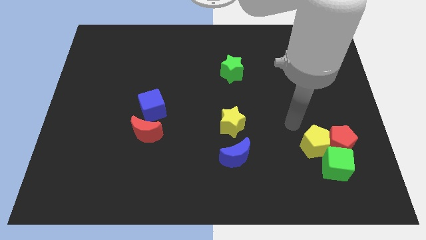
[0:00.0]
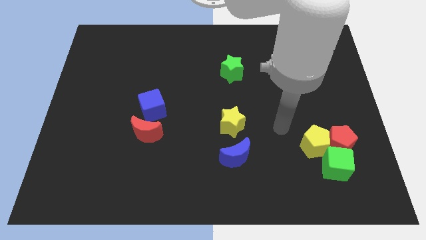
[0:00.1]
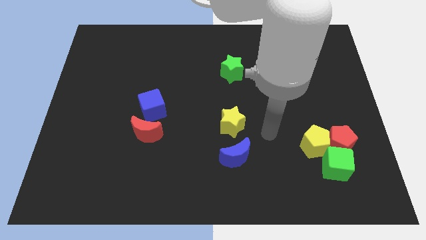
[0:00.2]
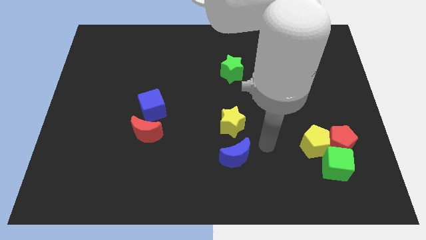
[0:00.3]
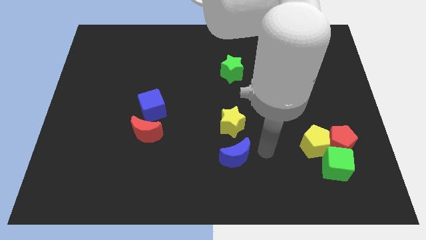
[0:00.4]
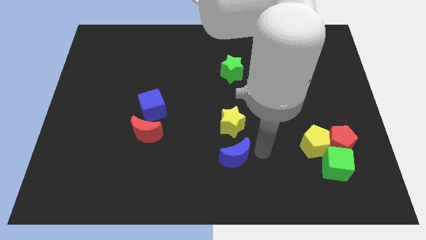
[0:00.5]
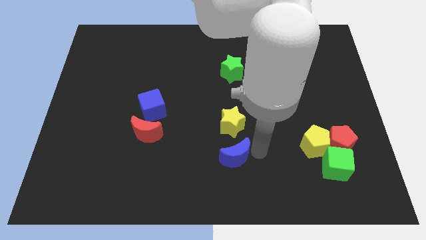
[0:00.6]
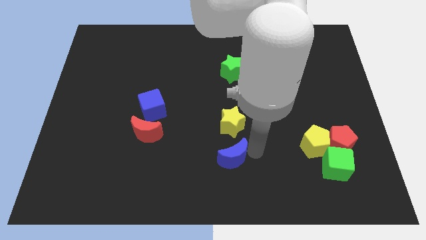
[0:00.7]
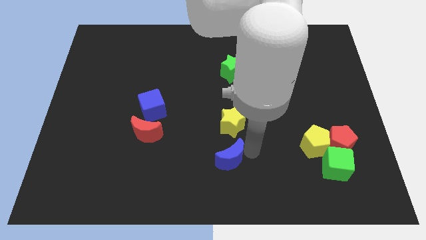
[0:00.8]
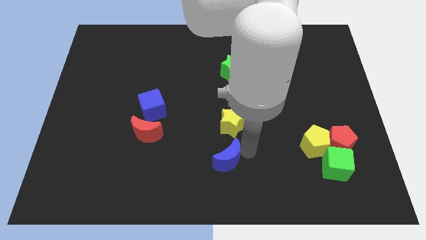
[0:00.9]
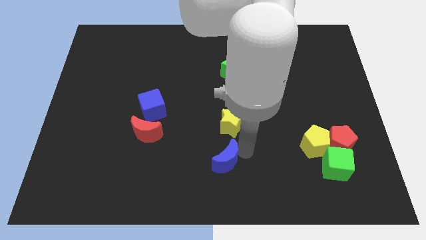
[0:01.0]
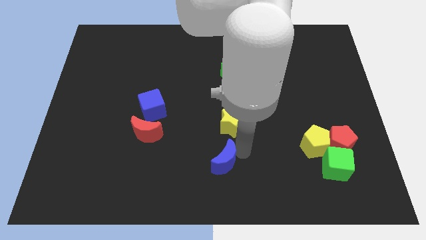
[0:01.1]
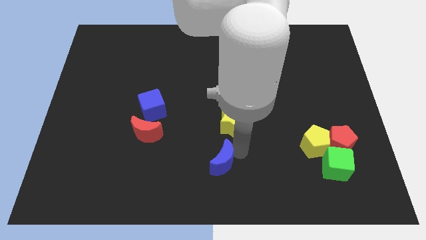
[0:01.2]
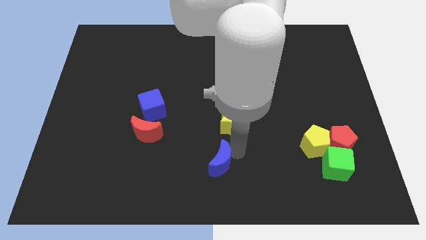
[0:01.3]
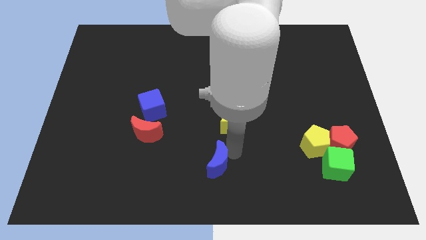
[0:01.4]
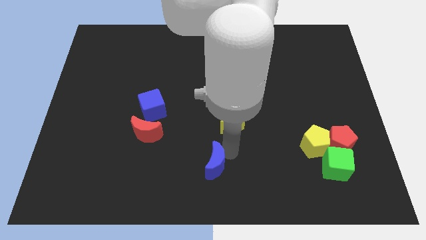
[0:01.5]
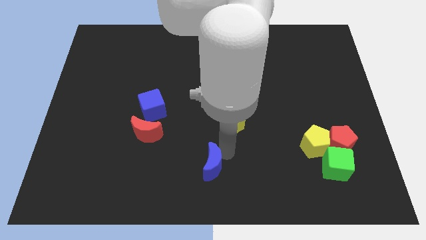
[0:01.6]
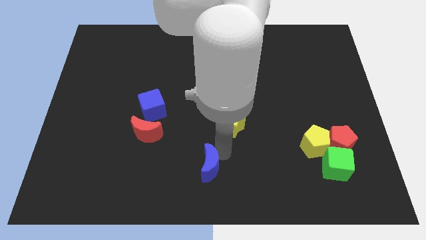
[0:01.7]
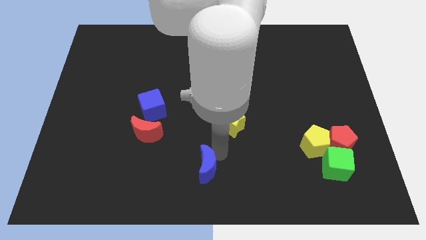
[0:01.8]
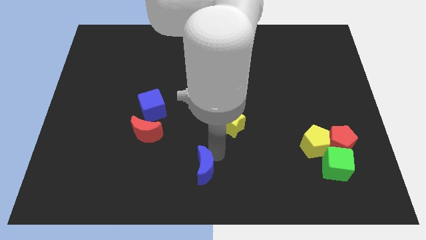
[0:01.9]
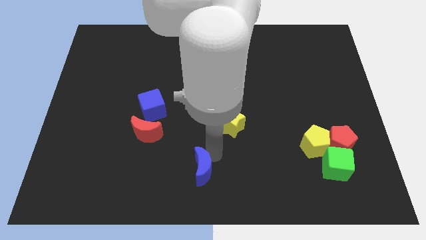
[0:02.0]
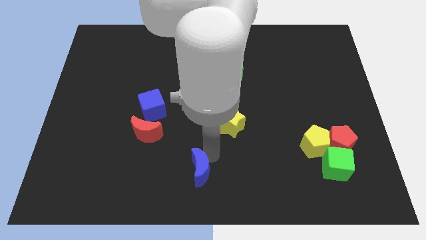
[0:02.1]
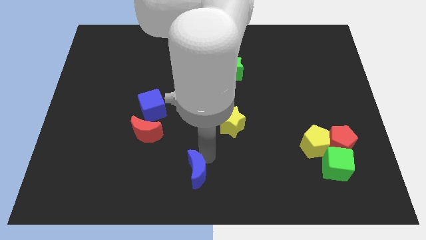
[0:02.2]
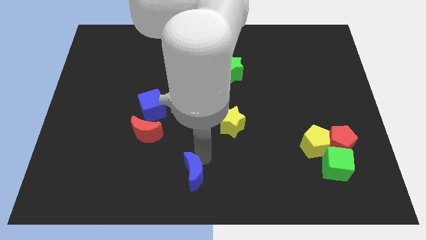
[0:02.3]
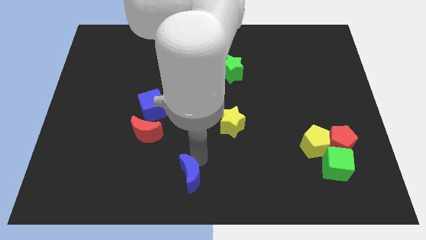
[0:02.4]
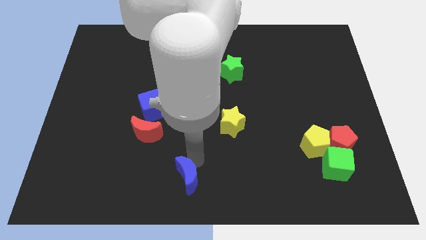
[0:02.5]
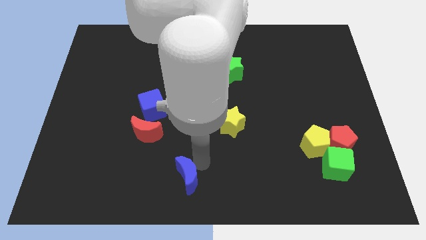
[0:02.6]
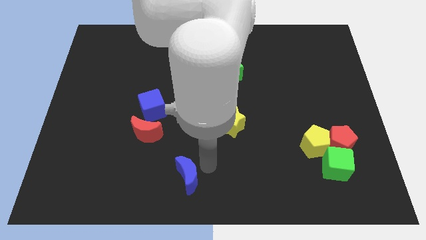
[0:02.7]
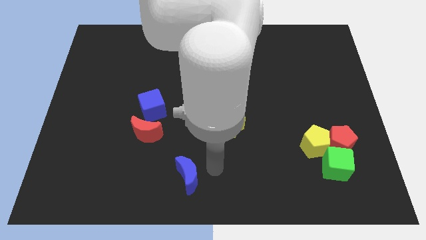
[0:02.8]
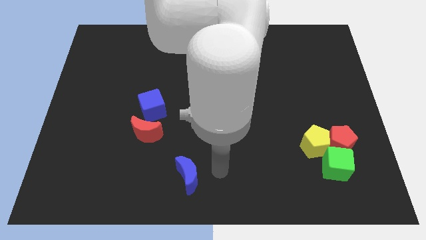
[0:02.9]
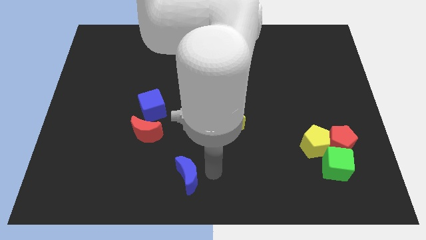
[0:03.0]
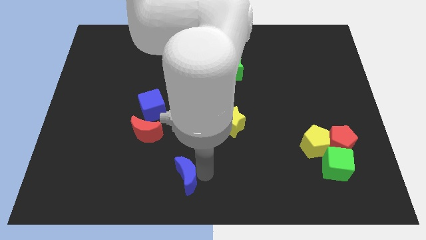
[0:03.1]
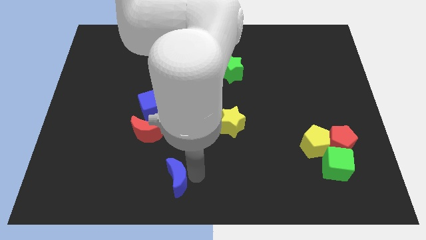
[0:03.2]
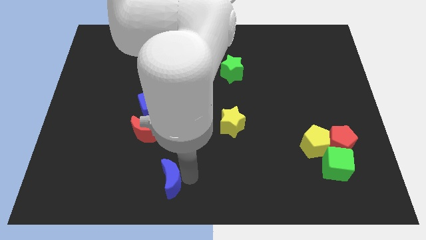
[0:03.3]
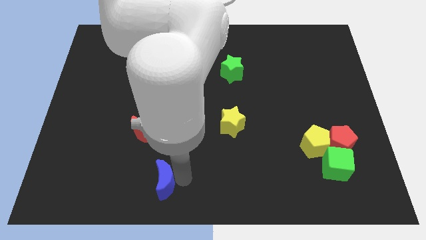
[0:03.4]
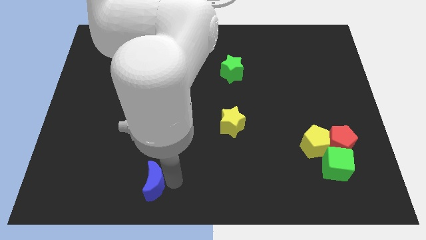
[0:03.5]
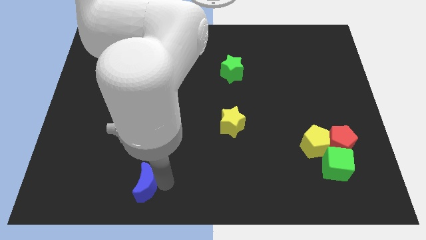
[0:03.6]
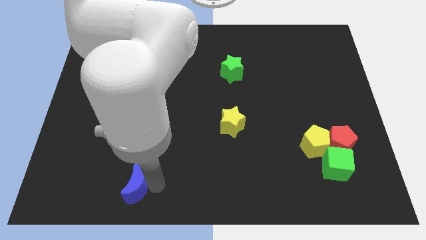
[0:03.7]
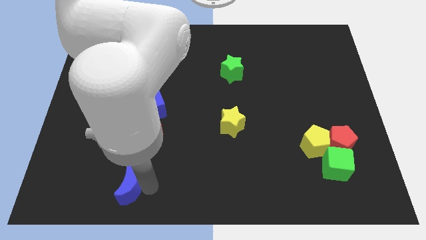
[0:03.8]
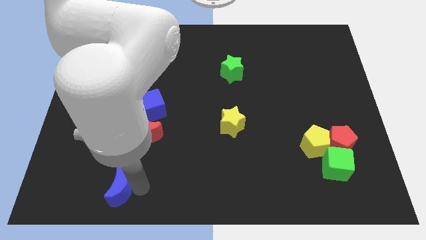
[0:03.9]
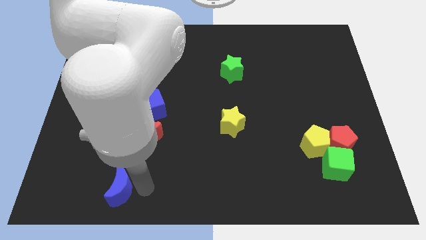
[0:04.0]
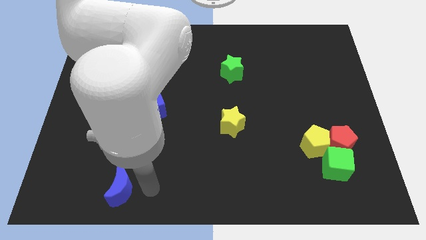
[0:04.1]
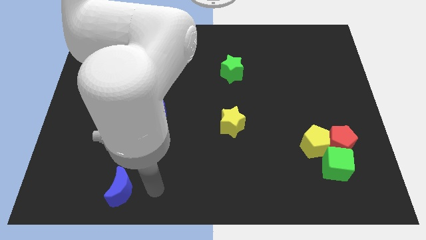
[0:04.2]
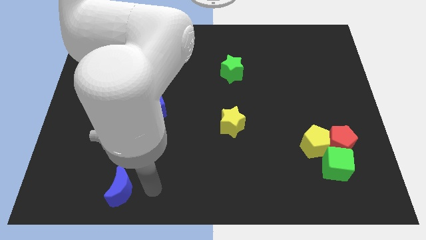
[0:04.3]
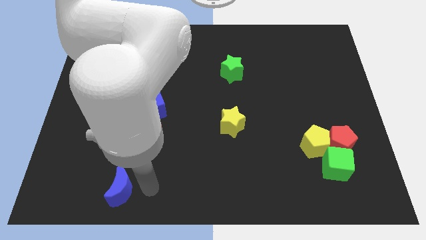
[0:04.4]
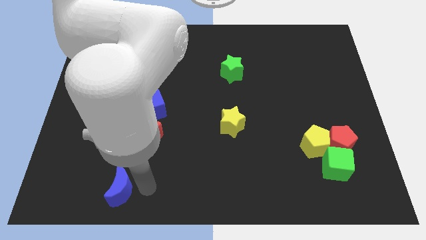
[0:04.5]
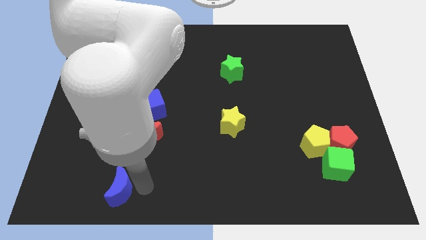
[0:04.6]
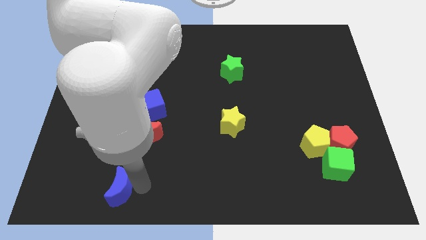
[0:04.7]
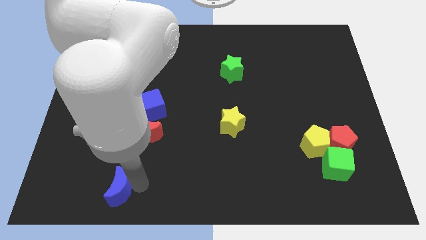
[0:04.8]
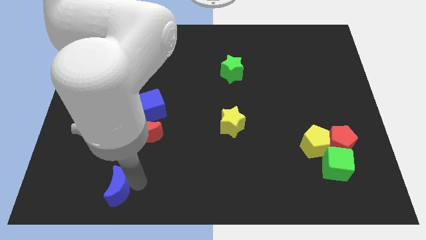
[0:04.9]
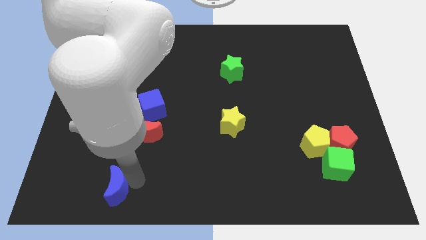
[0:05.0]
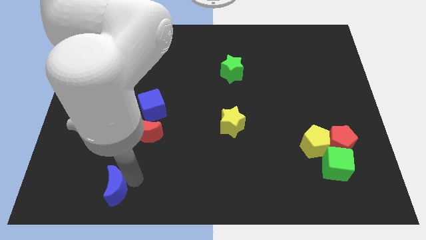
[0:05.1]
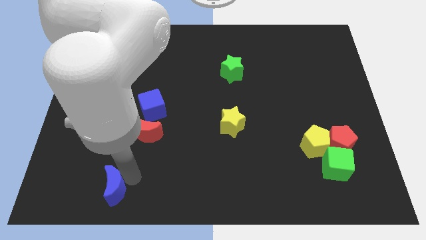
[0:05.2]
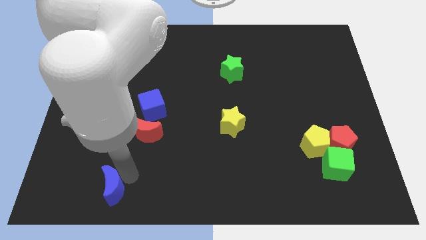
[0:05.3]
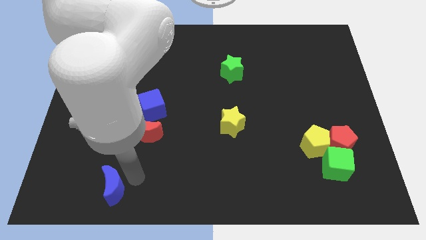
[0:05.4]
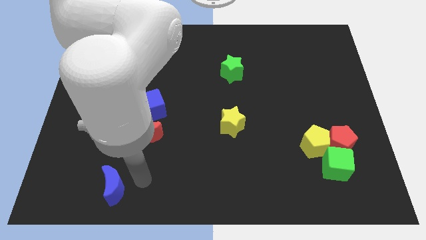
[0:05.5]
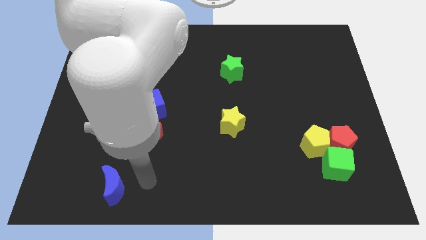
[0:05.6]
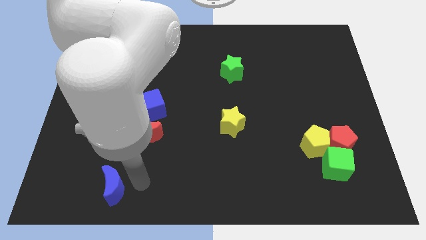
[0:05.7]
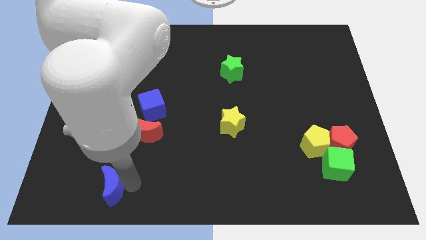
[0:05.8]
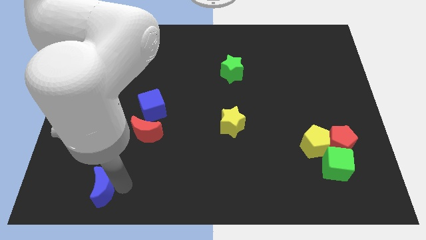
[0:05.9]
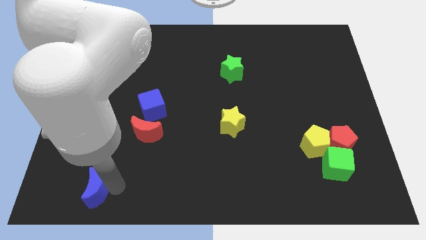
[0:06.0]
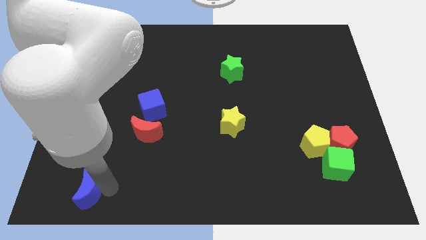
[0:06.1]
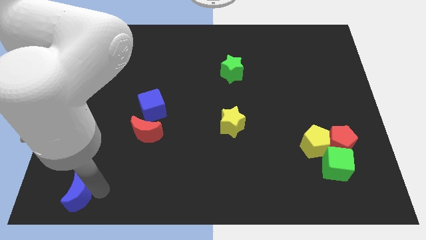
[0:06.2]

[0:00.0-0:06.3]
put the blue moon to the bottom left corner

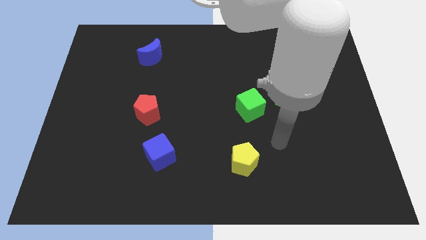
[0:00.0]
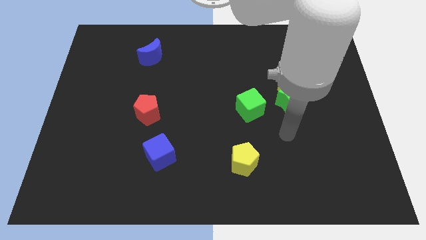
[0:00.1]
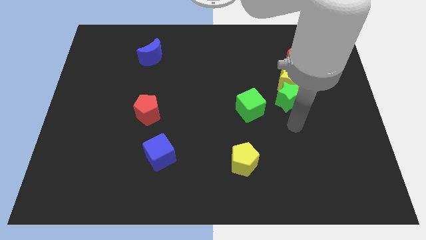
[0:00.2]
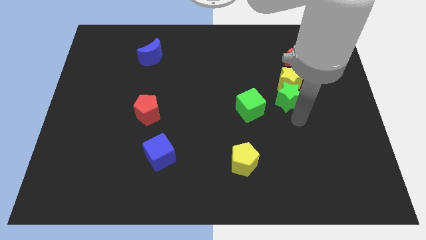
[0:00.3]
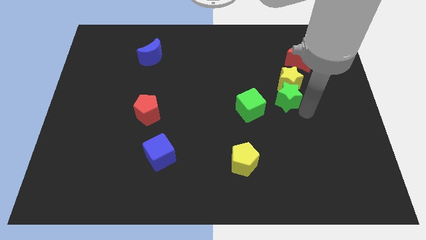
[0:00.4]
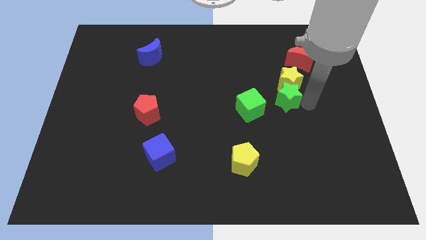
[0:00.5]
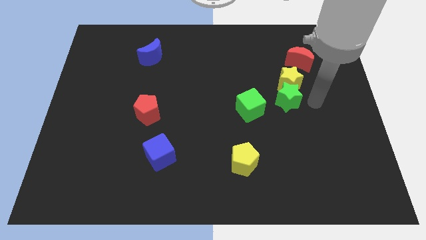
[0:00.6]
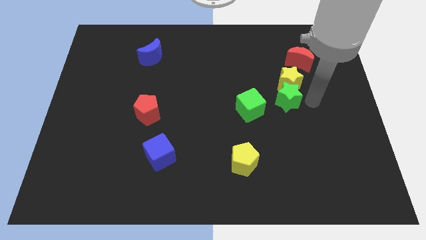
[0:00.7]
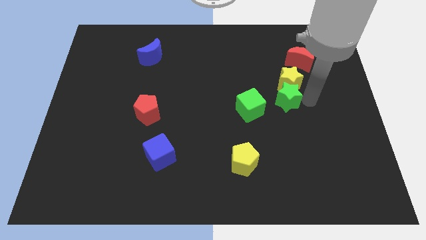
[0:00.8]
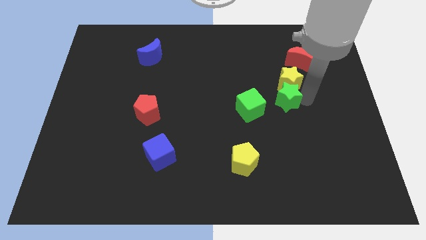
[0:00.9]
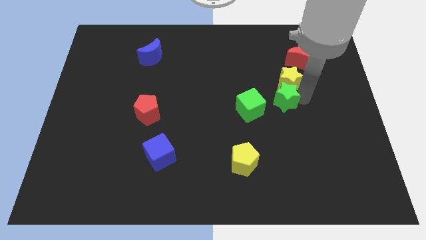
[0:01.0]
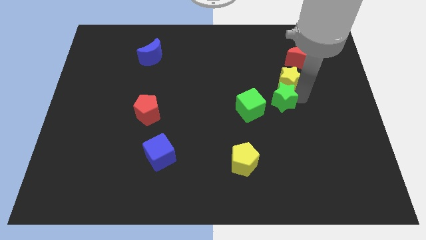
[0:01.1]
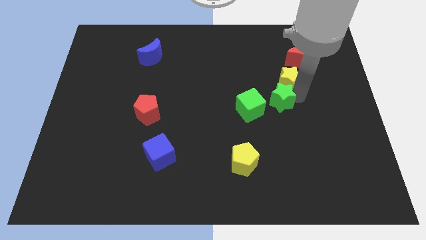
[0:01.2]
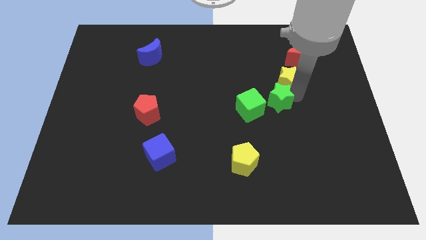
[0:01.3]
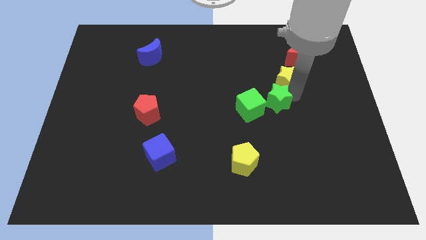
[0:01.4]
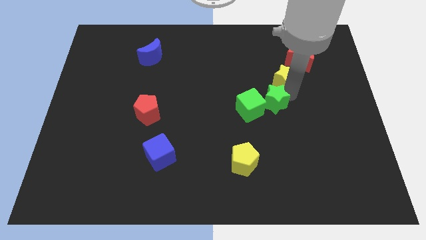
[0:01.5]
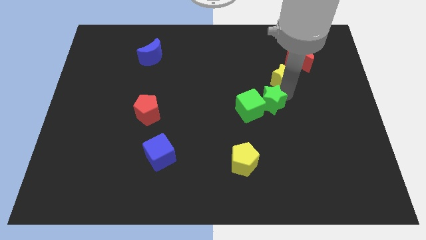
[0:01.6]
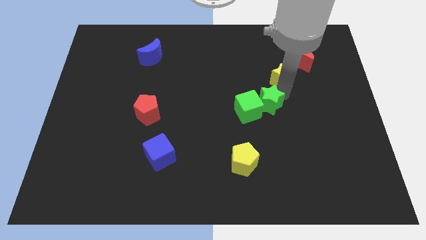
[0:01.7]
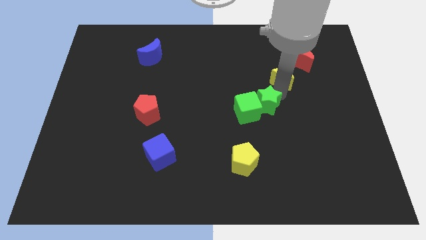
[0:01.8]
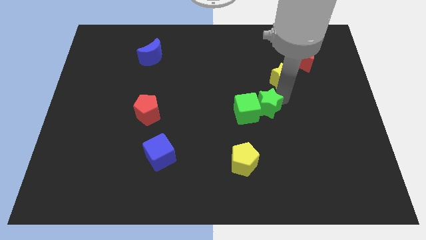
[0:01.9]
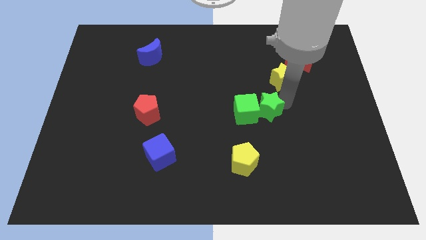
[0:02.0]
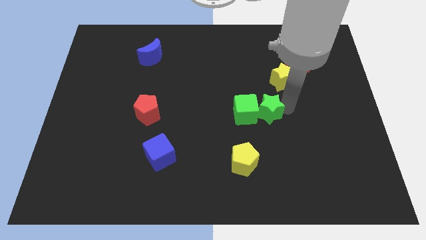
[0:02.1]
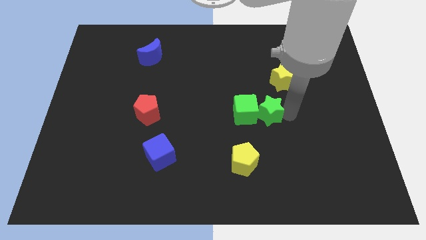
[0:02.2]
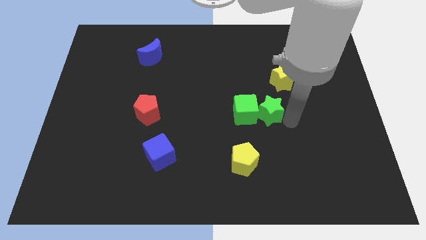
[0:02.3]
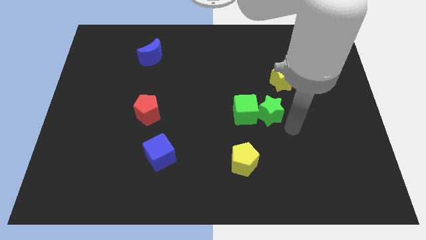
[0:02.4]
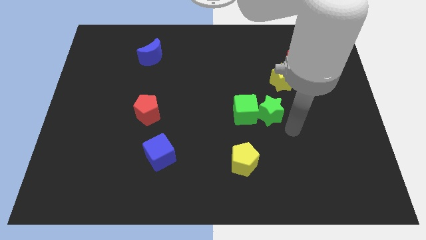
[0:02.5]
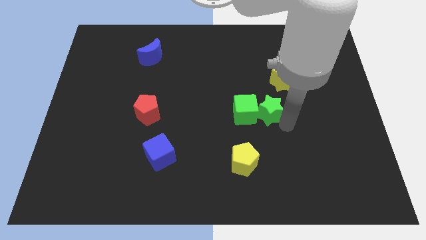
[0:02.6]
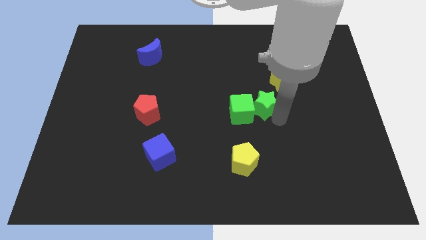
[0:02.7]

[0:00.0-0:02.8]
put the green star to the center of the board
